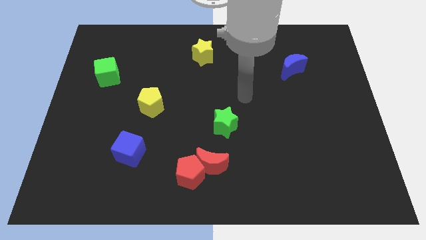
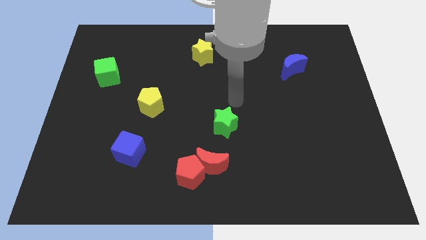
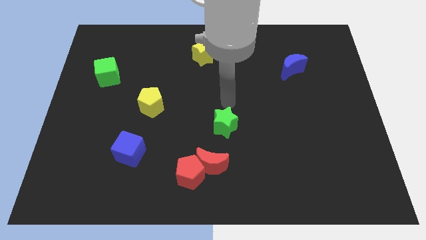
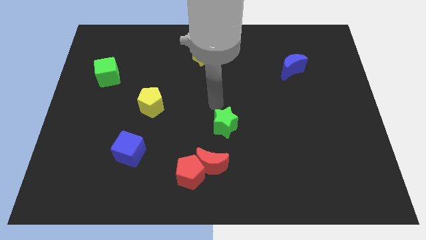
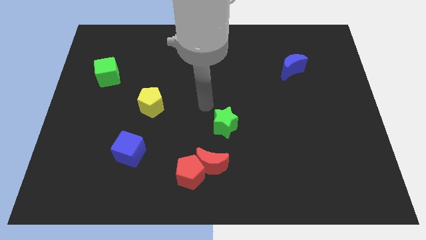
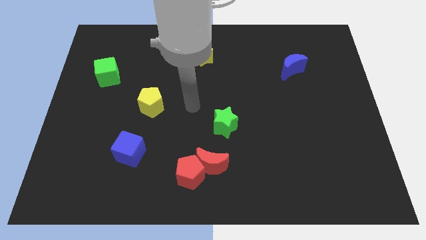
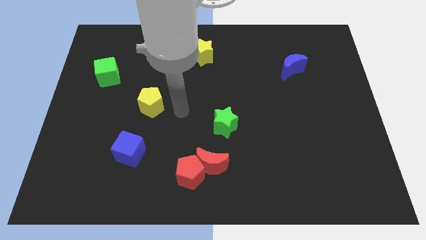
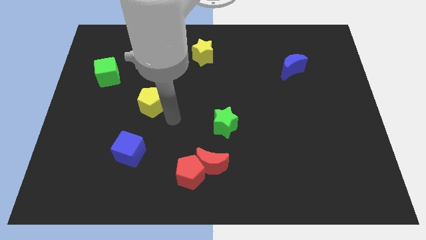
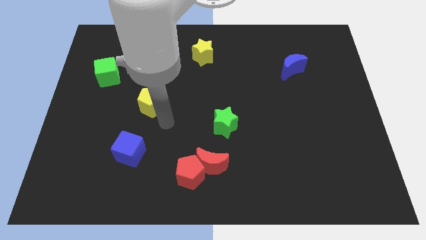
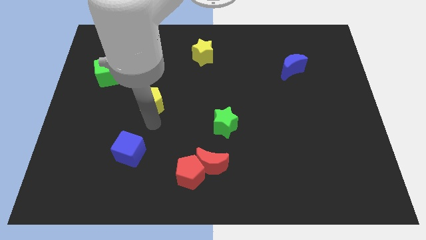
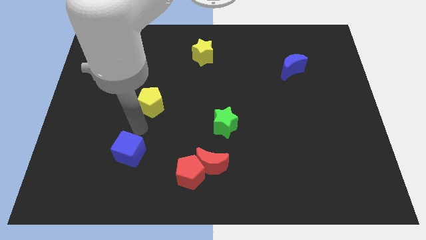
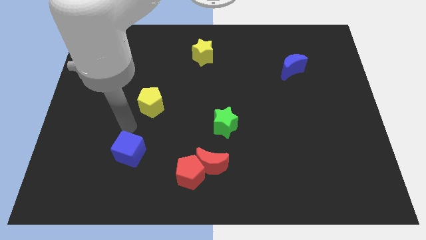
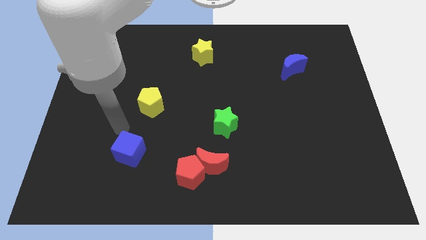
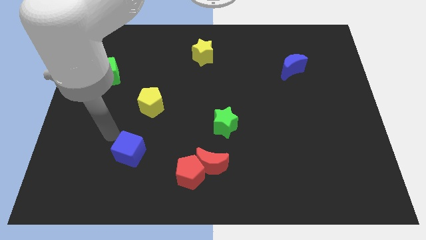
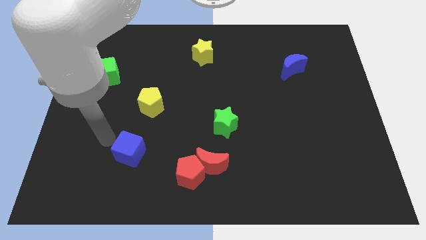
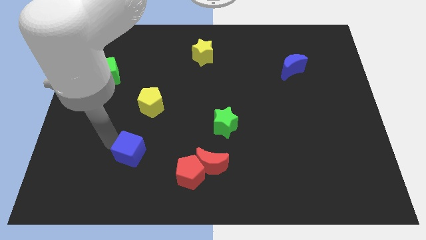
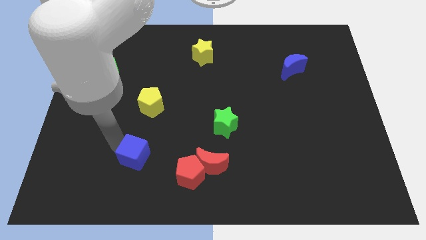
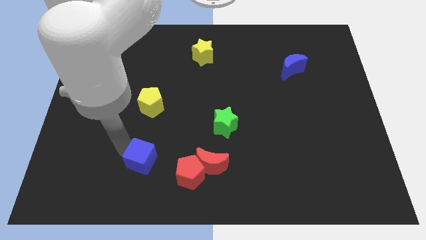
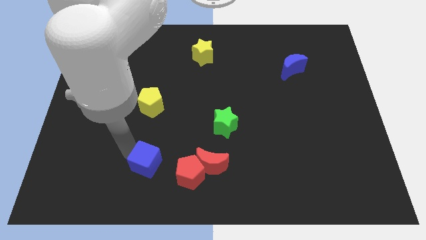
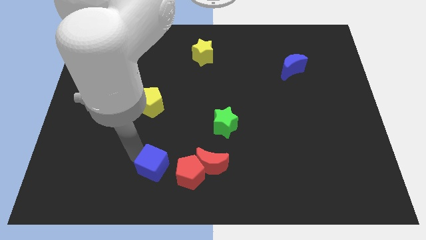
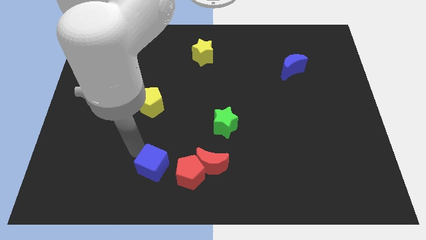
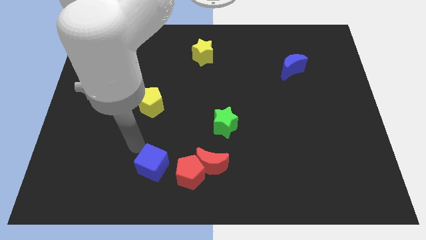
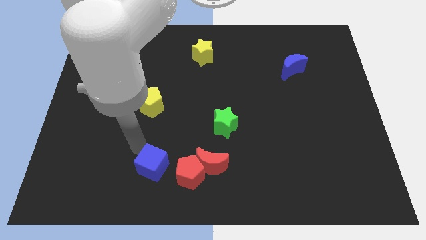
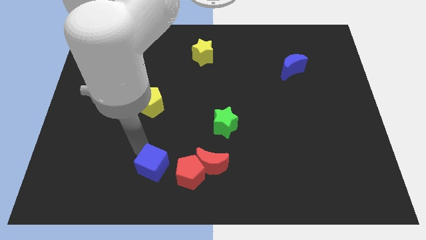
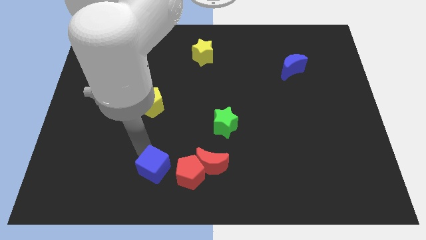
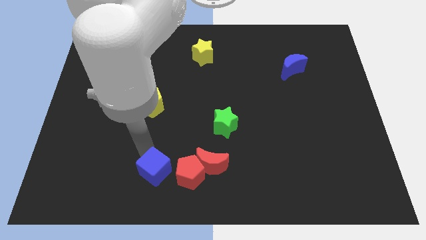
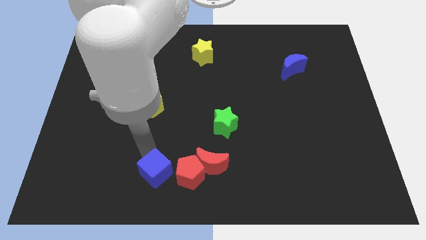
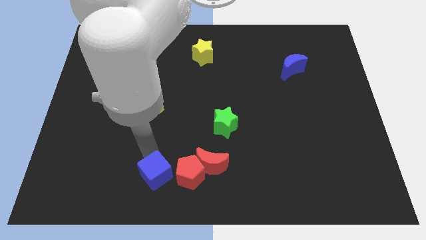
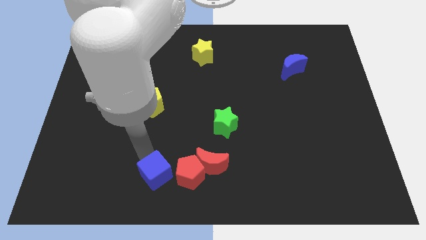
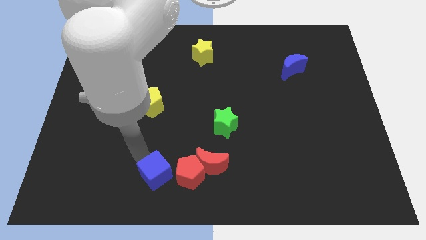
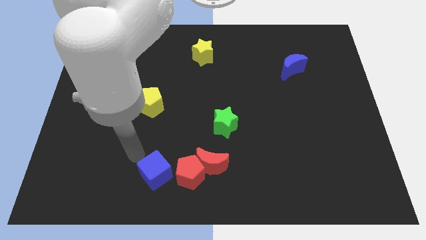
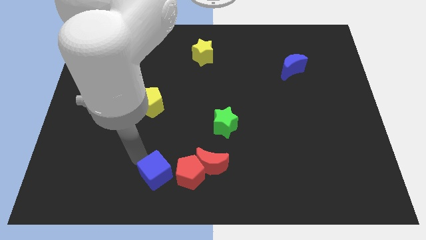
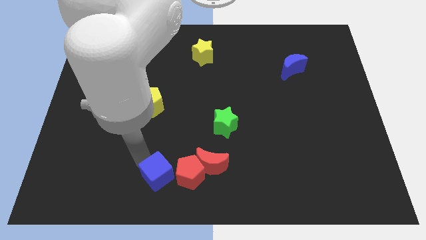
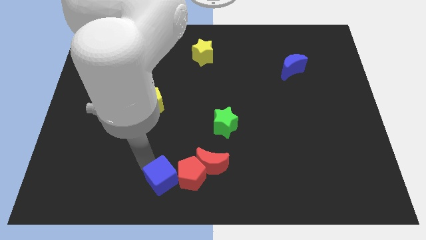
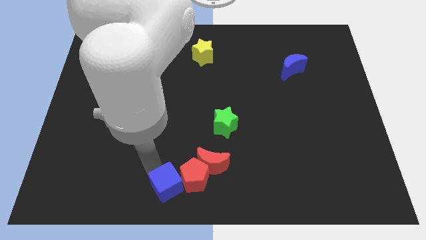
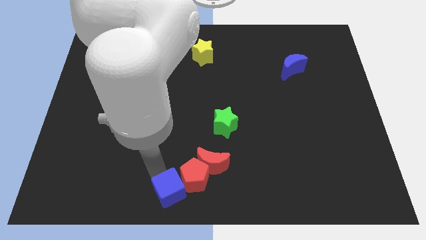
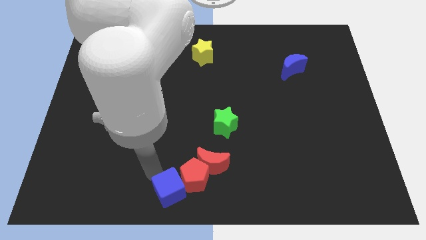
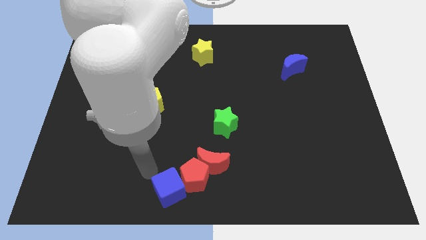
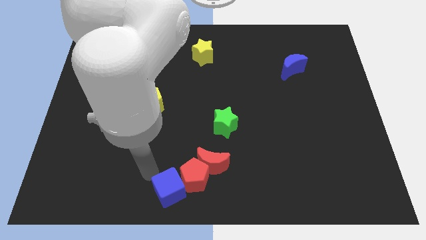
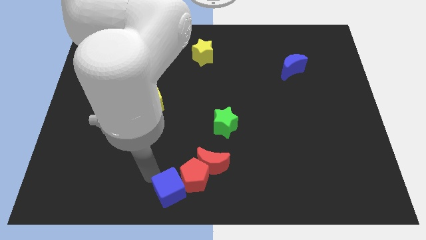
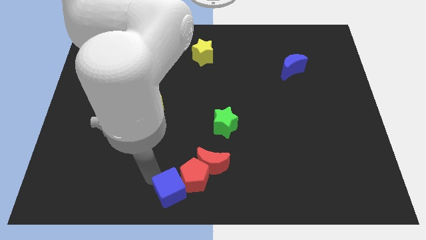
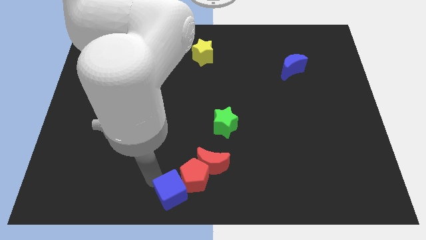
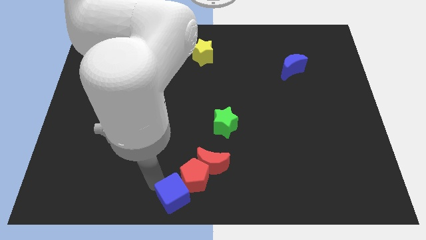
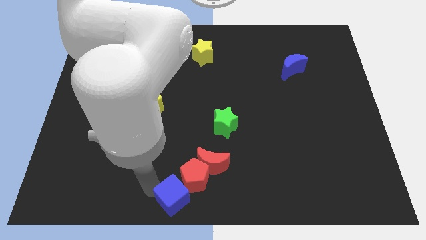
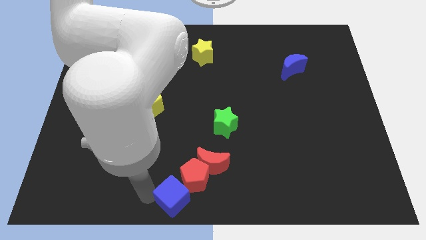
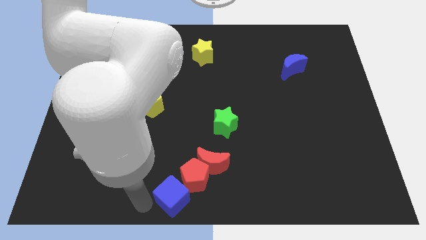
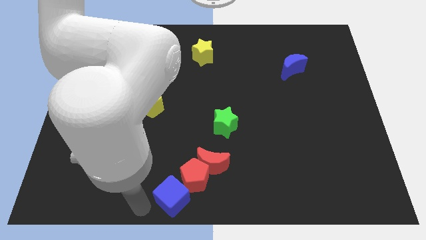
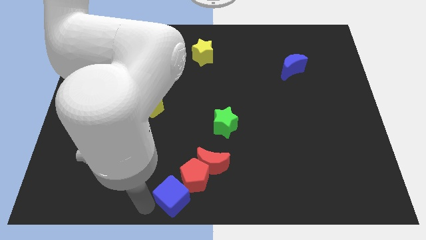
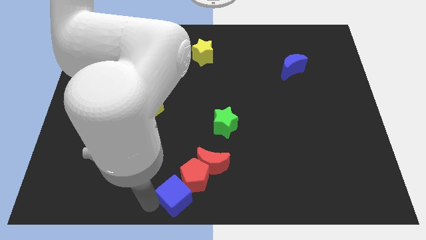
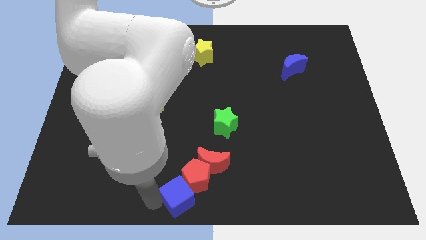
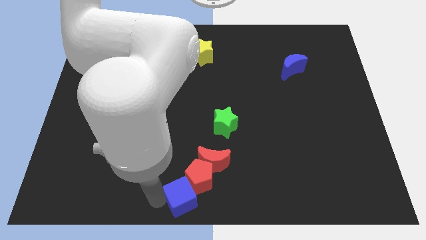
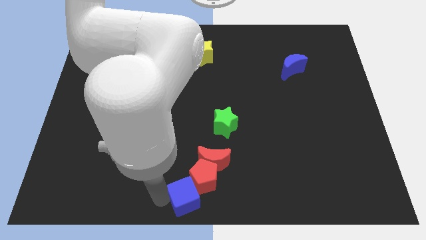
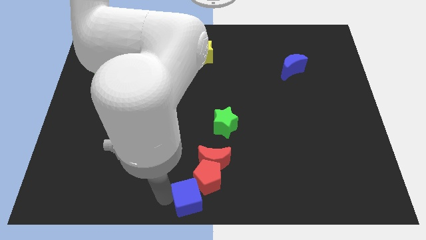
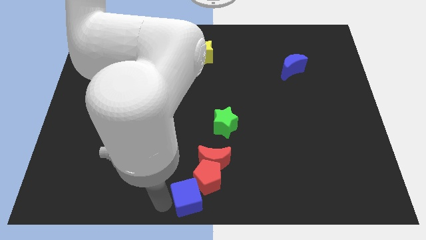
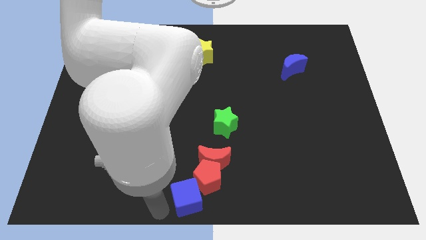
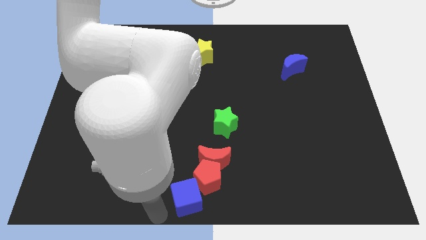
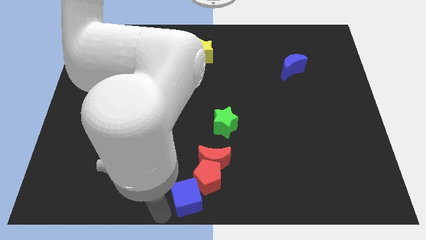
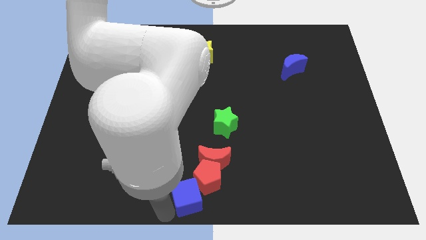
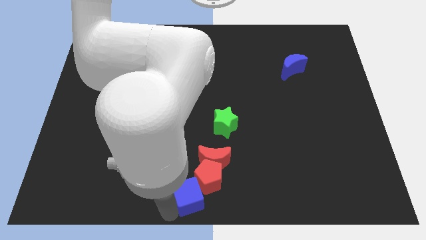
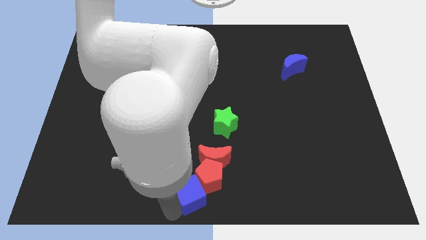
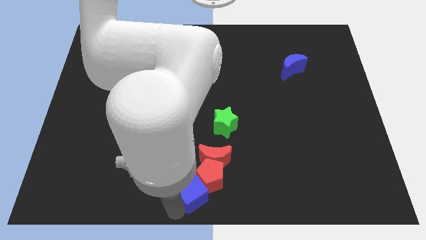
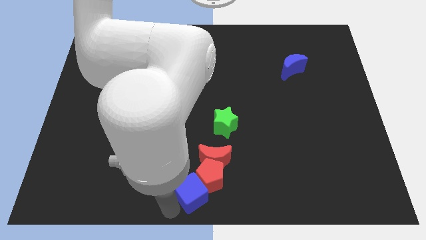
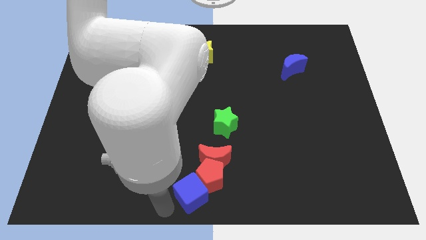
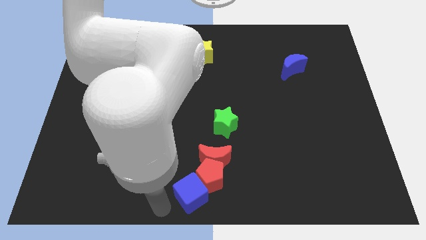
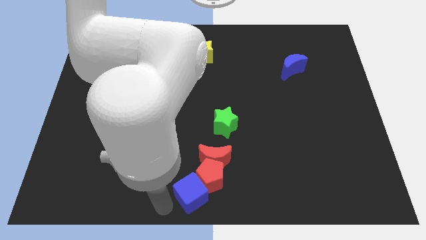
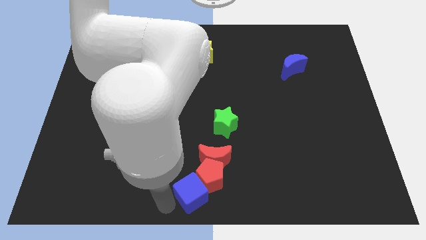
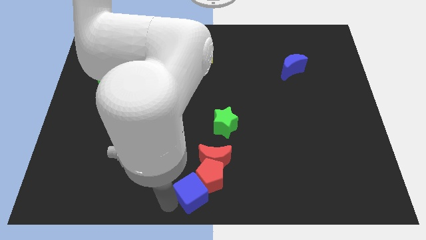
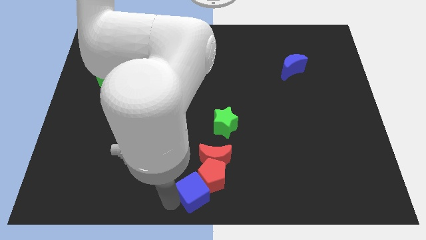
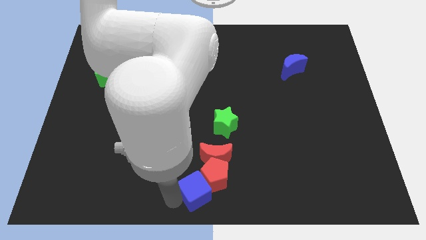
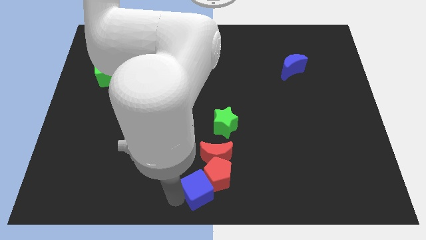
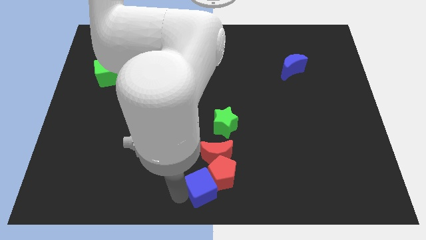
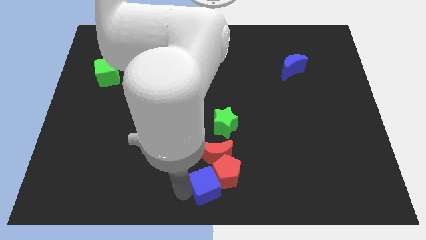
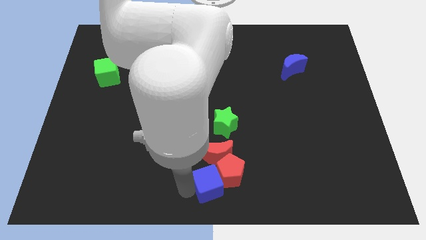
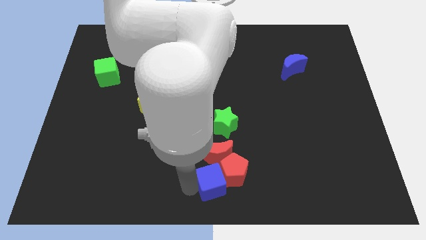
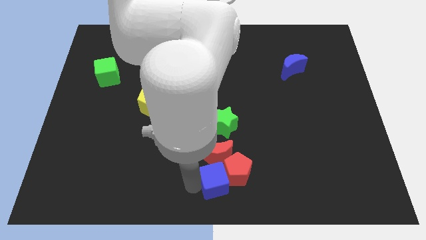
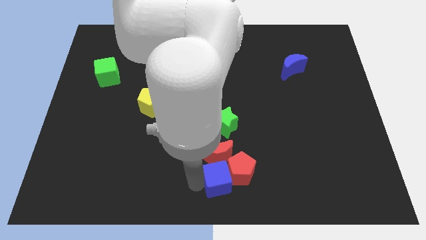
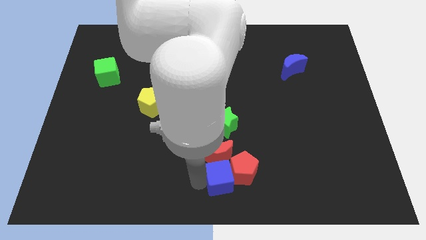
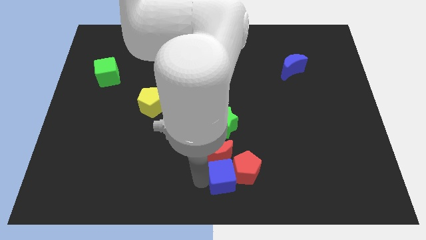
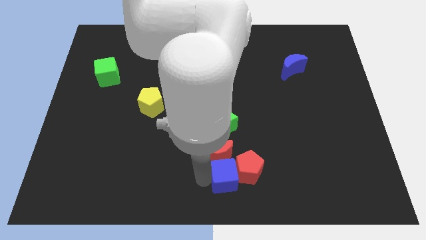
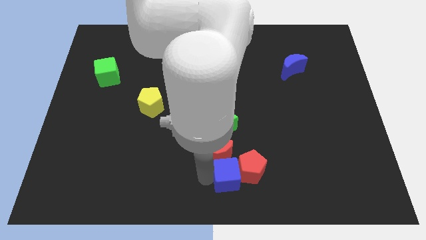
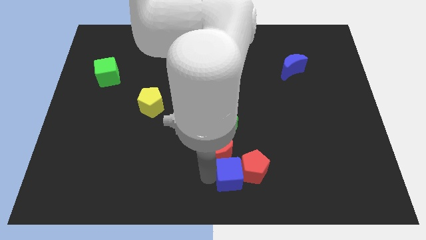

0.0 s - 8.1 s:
push the blue cube right
